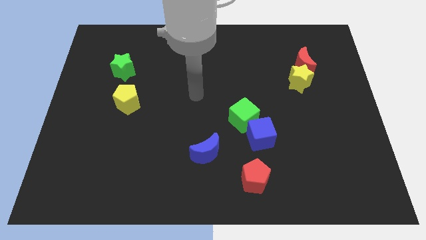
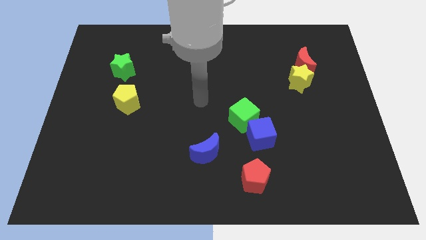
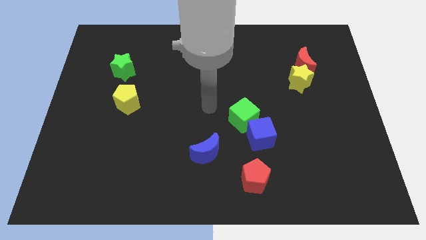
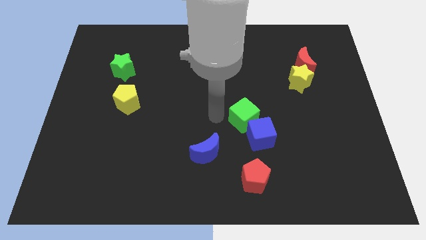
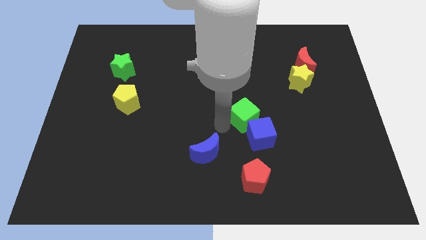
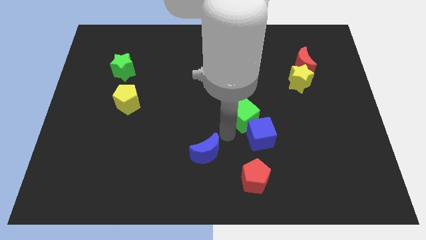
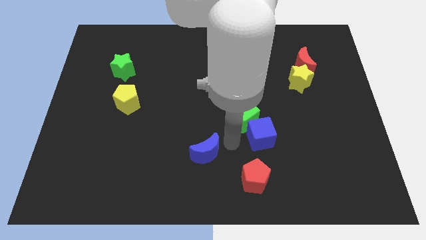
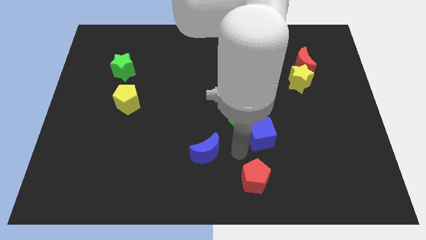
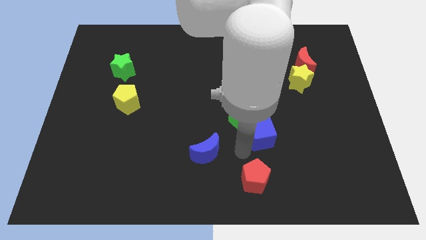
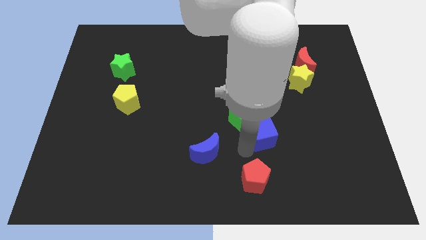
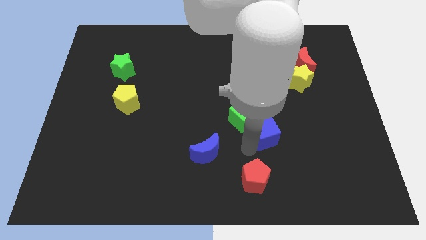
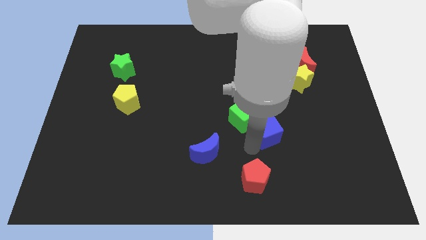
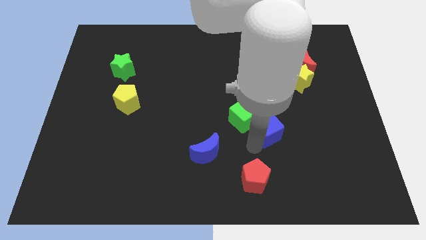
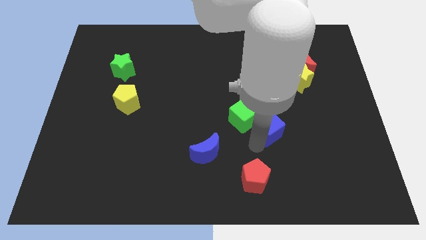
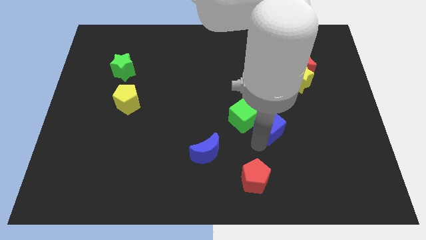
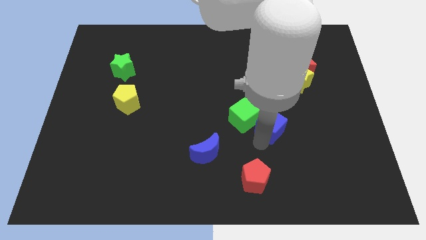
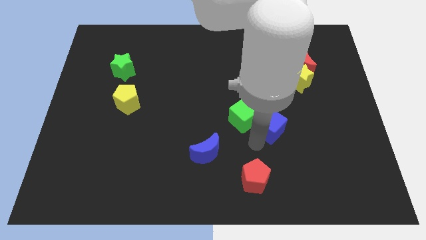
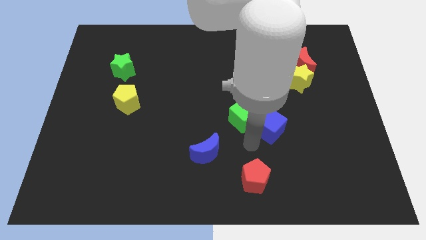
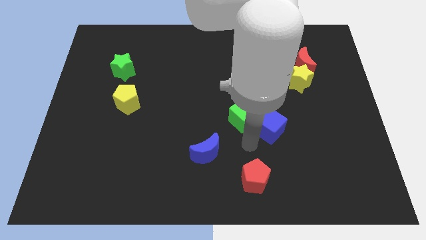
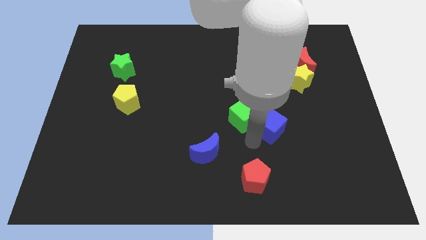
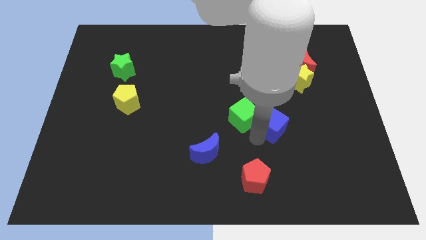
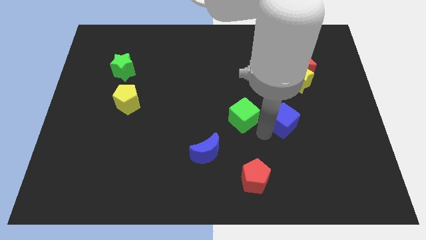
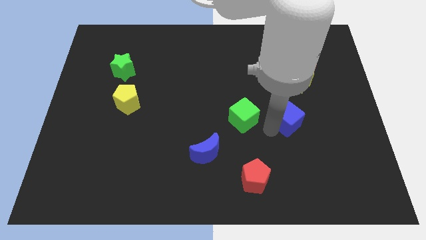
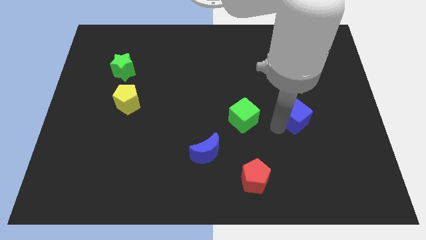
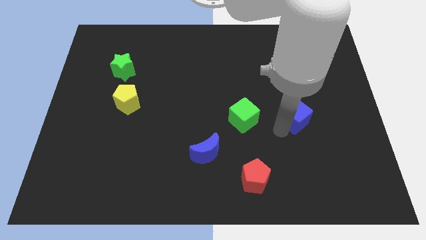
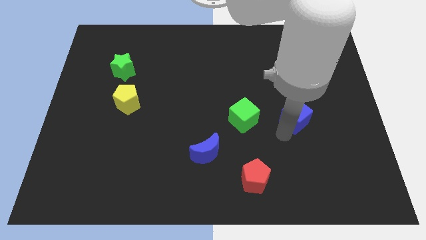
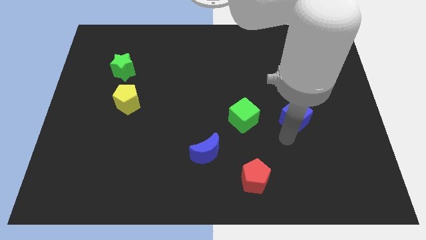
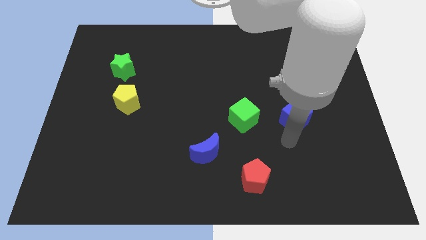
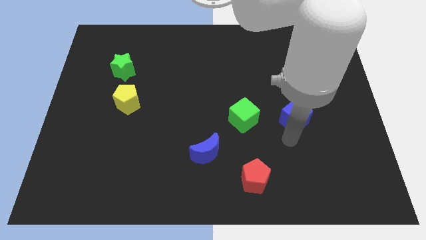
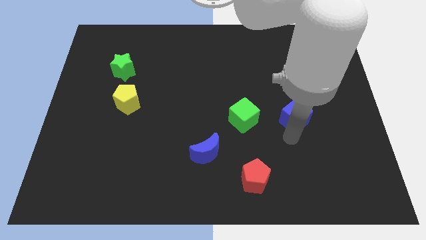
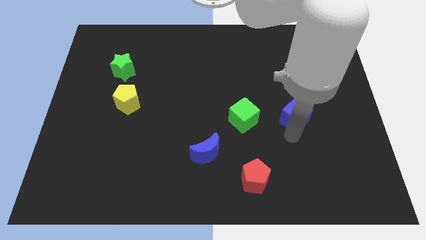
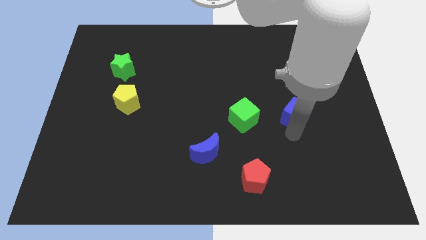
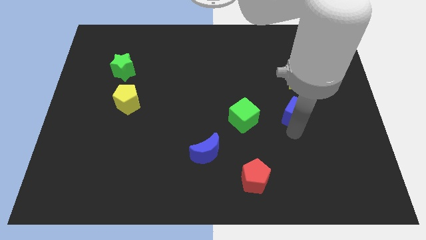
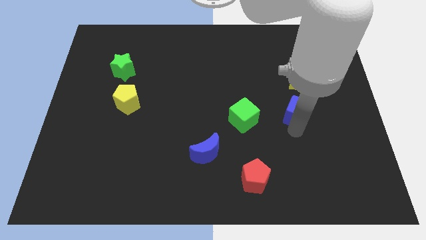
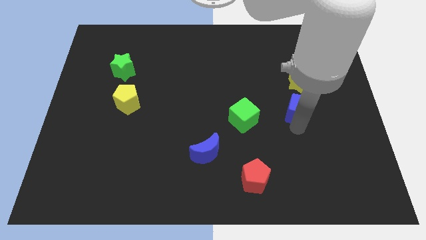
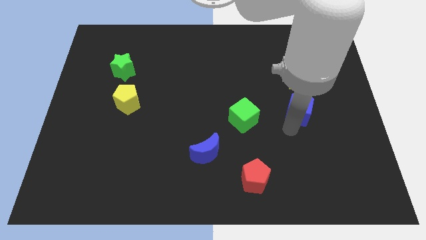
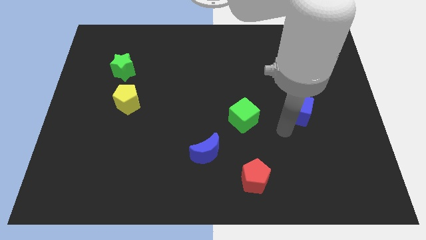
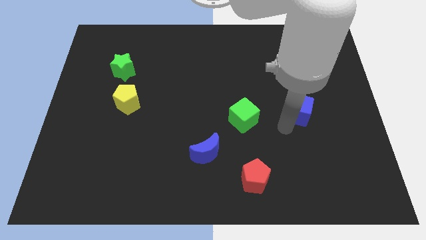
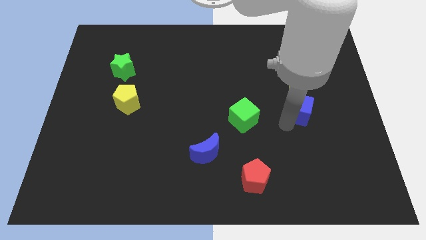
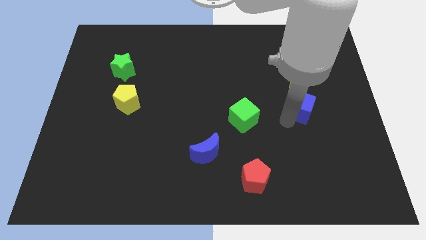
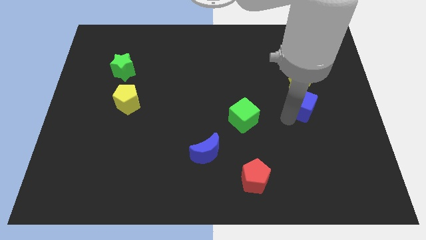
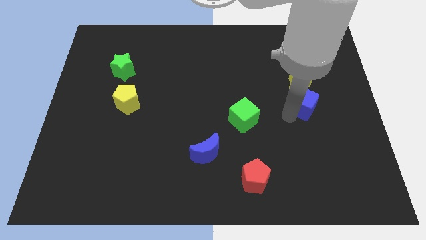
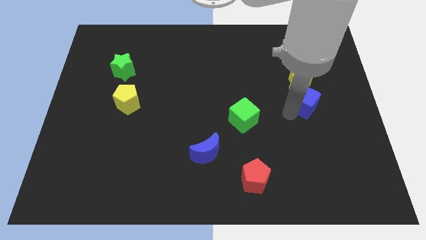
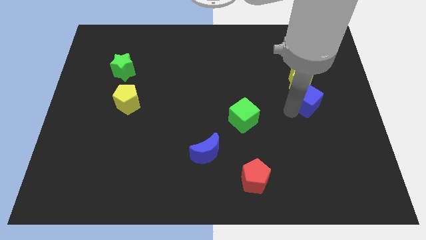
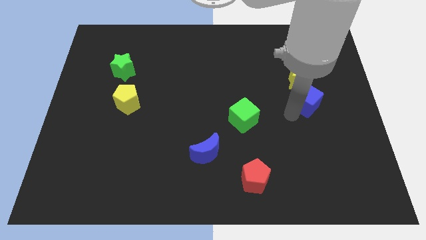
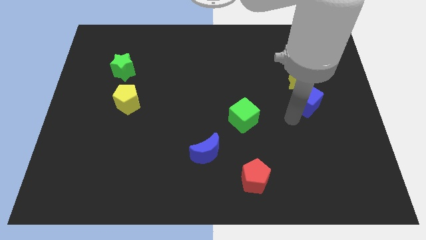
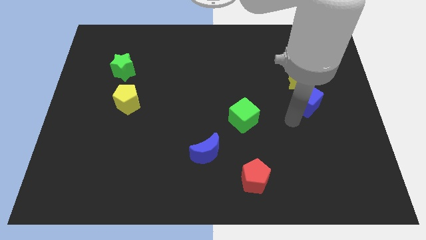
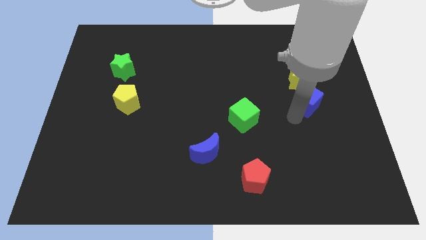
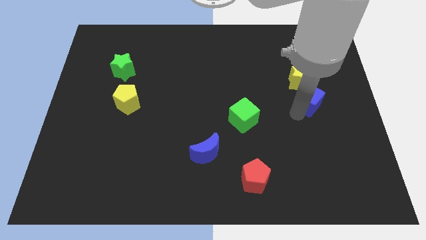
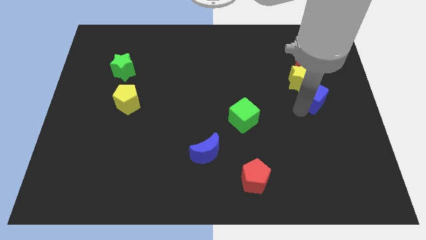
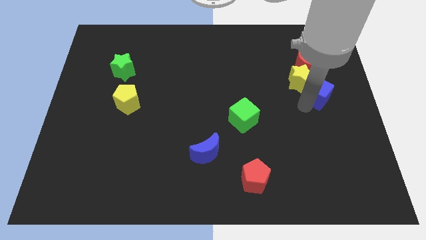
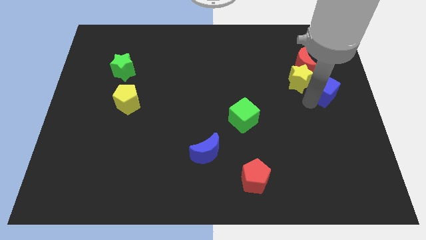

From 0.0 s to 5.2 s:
move the blue cube to the bottom right of the red moon

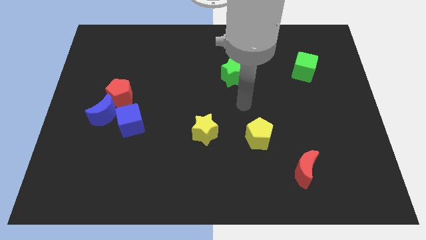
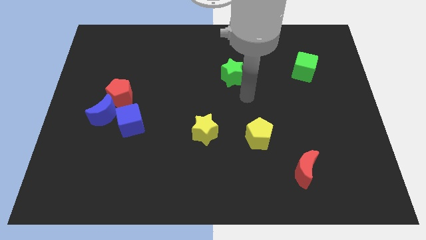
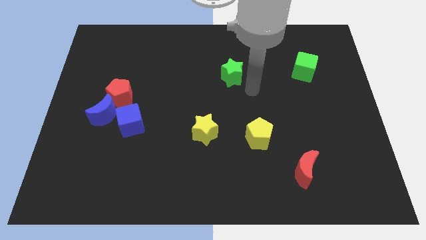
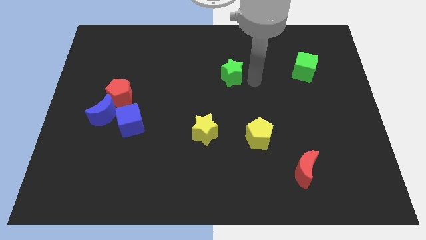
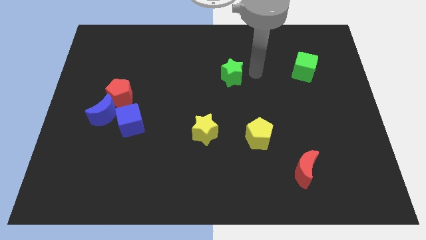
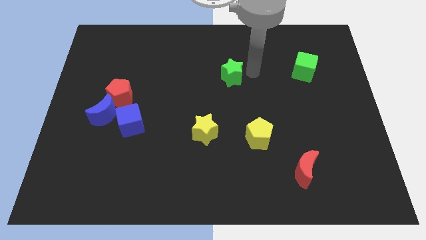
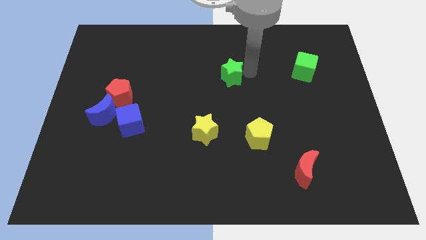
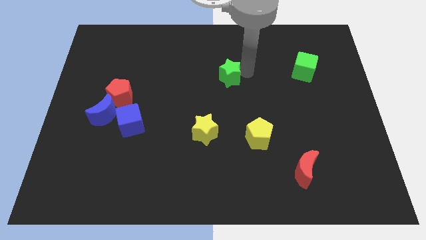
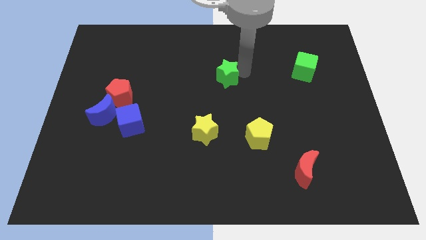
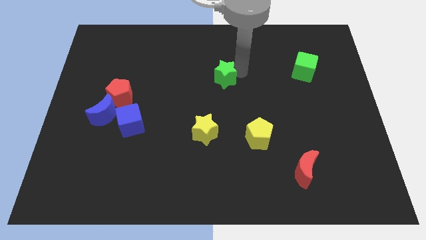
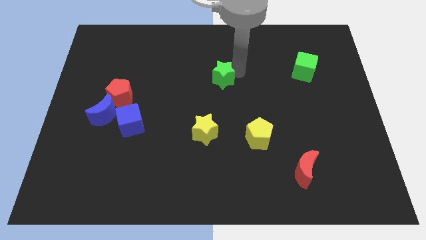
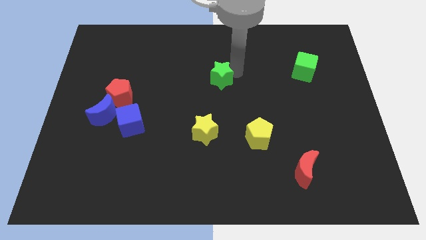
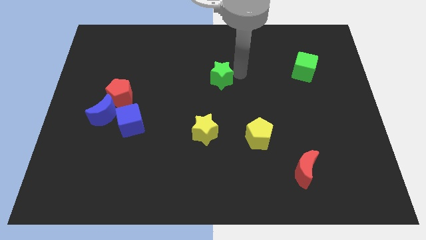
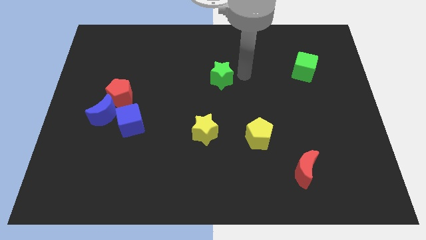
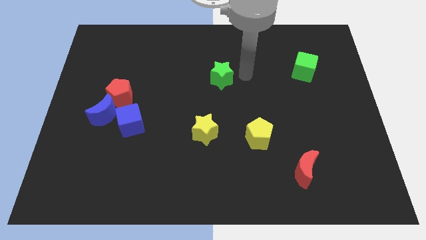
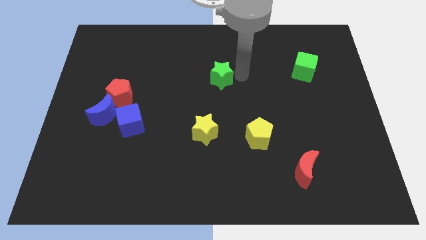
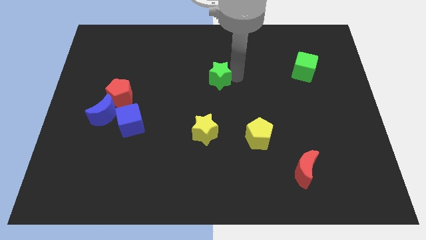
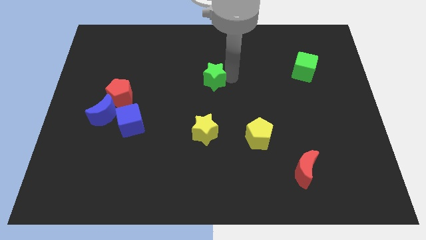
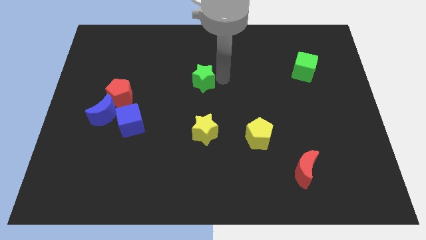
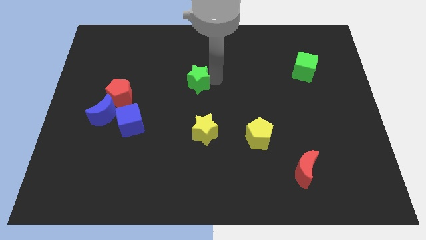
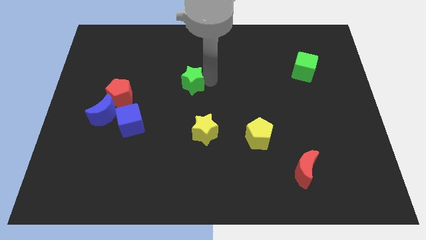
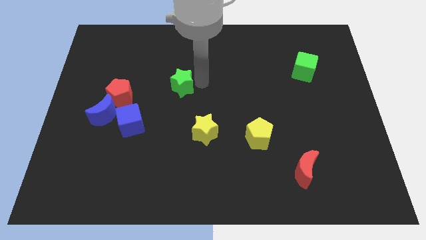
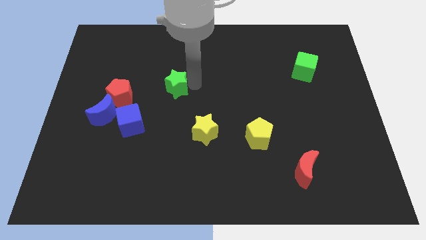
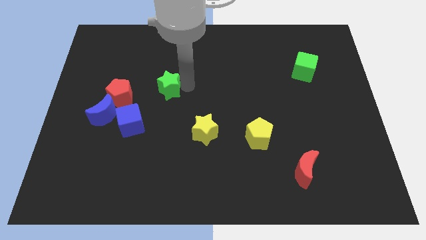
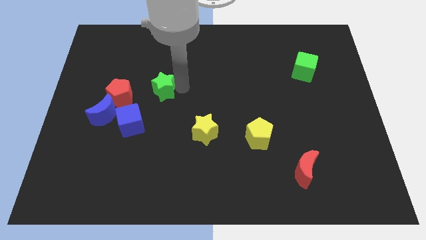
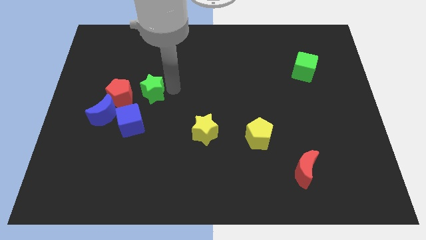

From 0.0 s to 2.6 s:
slide the green star to the top right of the blue moon
